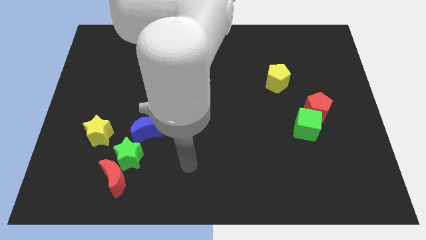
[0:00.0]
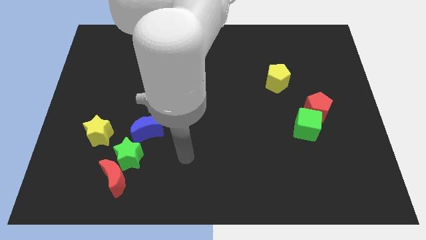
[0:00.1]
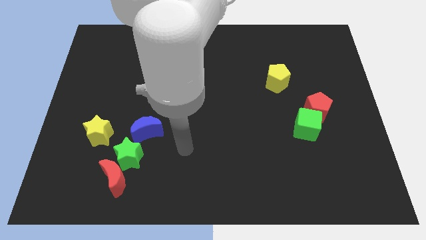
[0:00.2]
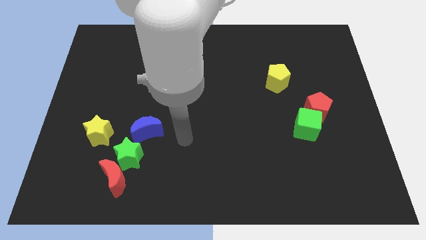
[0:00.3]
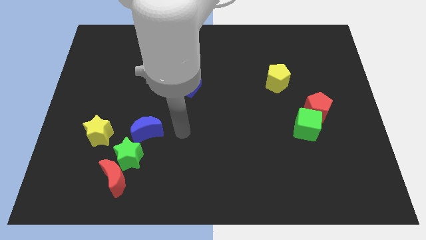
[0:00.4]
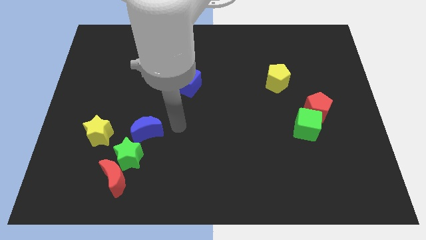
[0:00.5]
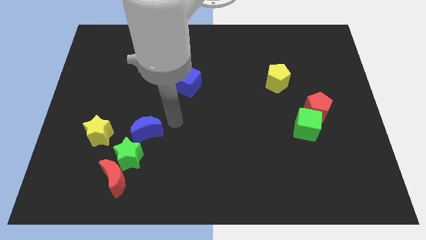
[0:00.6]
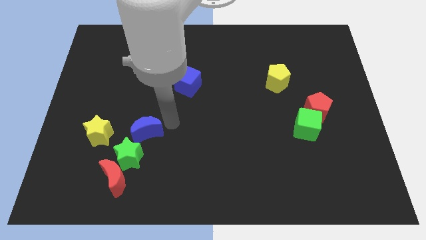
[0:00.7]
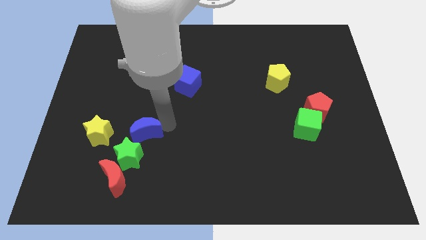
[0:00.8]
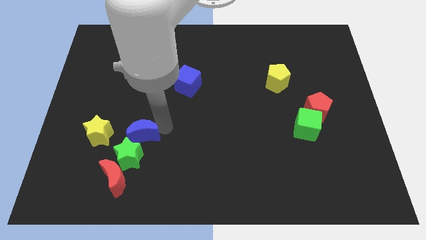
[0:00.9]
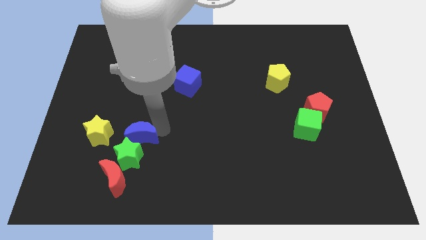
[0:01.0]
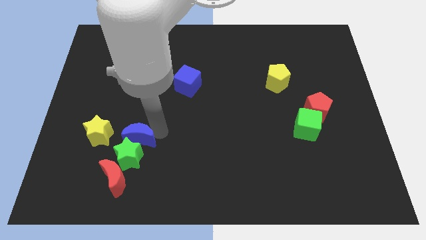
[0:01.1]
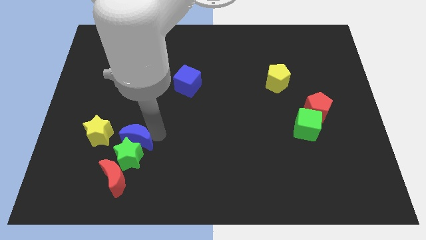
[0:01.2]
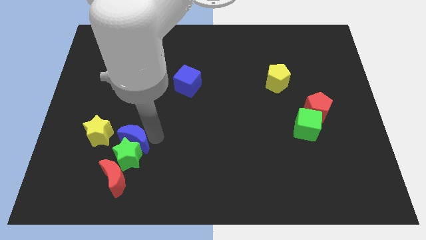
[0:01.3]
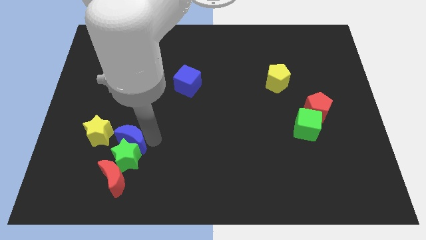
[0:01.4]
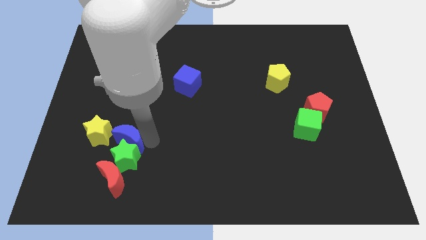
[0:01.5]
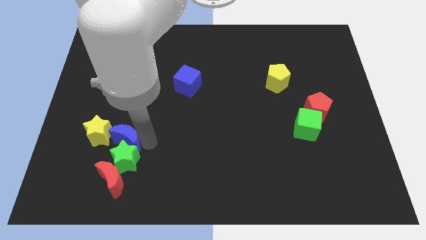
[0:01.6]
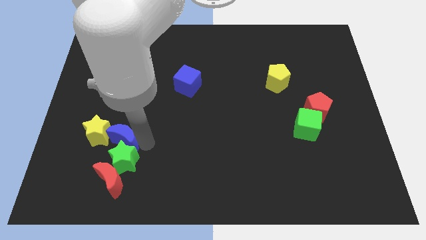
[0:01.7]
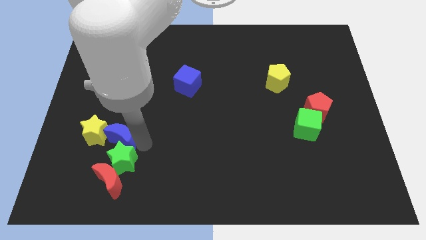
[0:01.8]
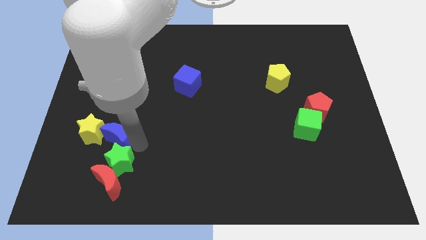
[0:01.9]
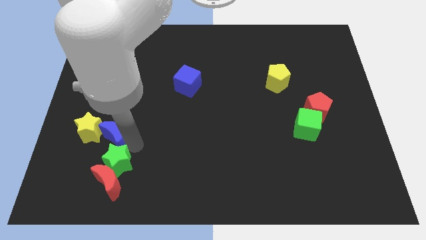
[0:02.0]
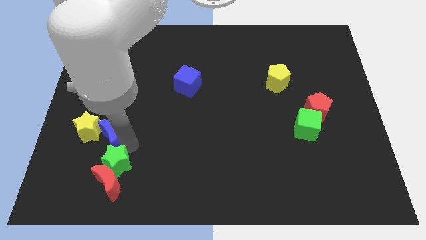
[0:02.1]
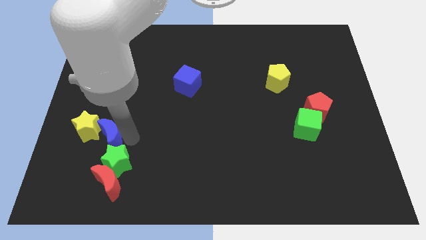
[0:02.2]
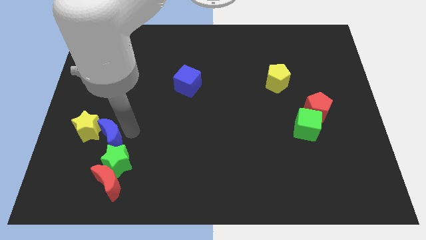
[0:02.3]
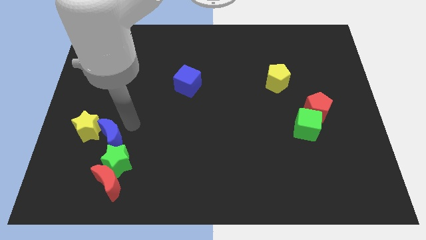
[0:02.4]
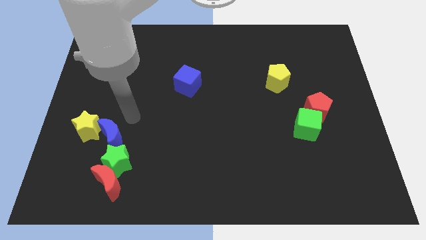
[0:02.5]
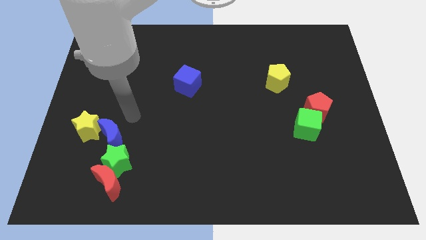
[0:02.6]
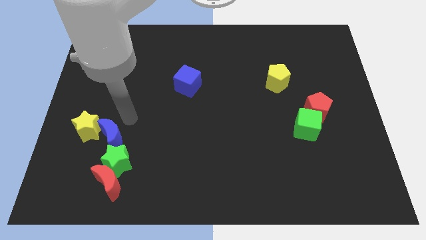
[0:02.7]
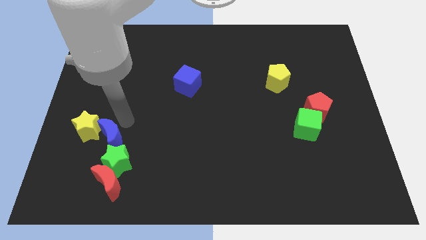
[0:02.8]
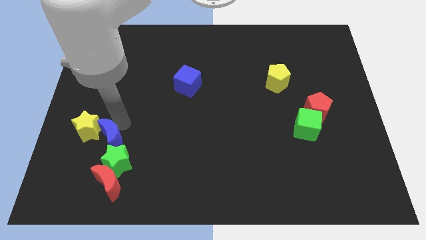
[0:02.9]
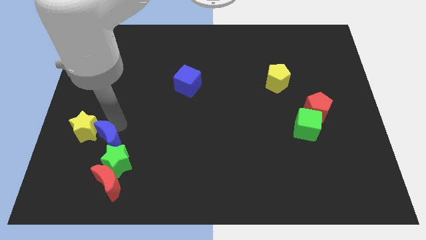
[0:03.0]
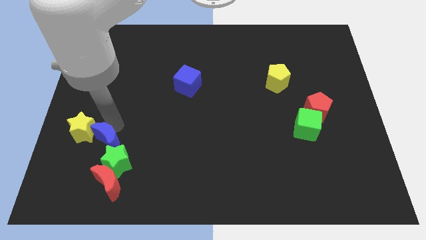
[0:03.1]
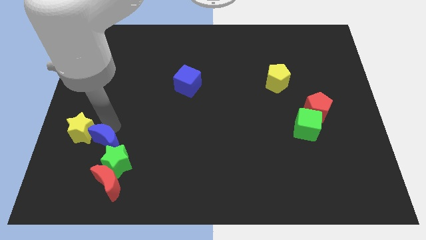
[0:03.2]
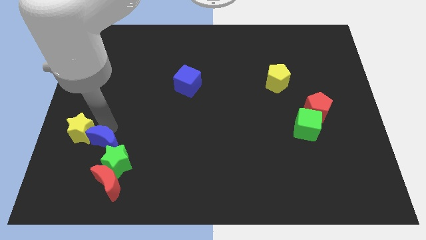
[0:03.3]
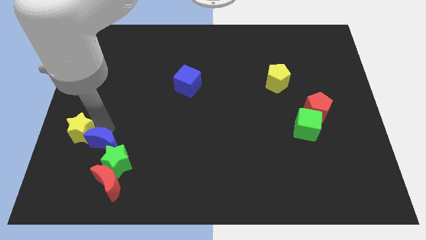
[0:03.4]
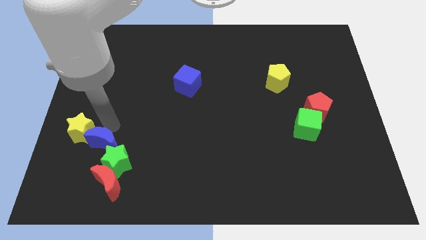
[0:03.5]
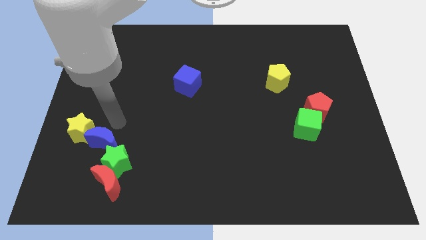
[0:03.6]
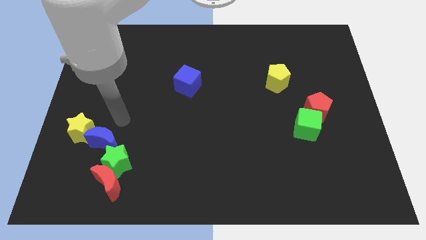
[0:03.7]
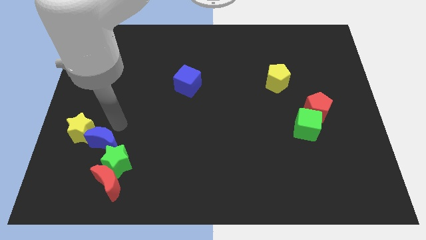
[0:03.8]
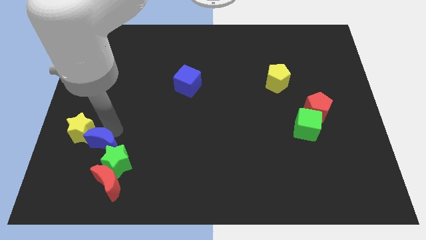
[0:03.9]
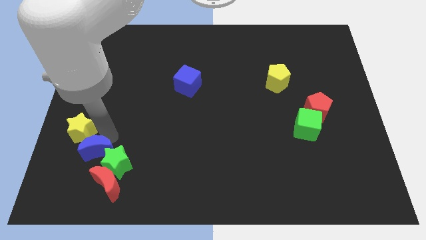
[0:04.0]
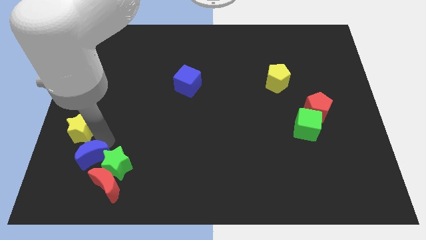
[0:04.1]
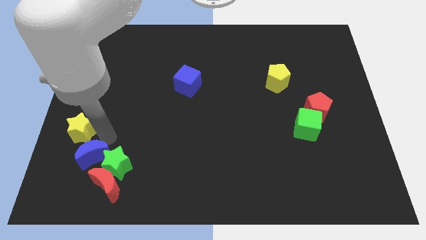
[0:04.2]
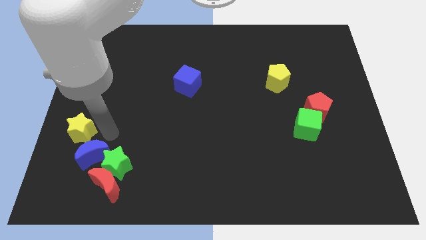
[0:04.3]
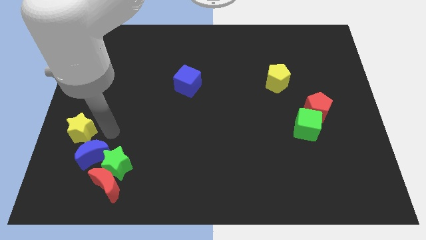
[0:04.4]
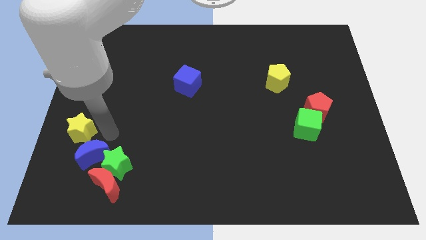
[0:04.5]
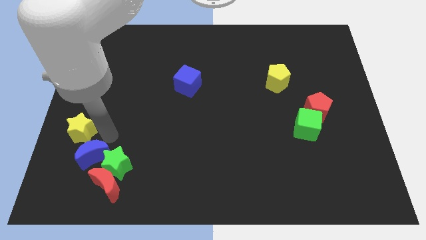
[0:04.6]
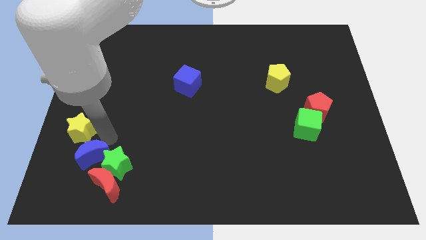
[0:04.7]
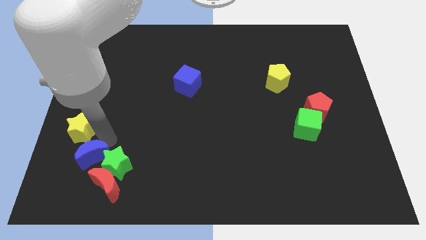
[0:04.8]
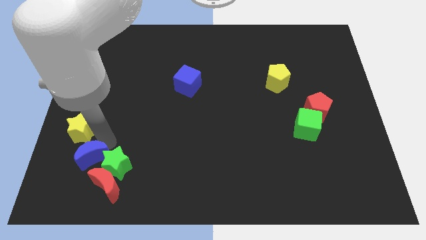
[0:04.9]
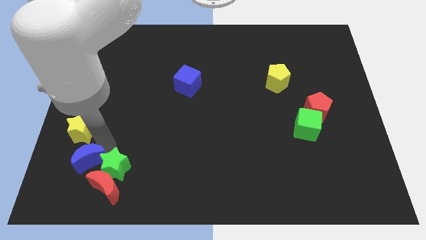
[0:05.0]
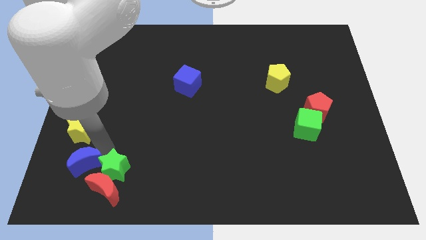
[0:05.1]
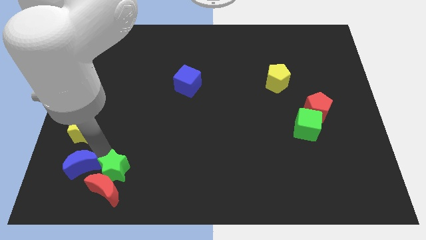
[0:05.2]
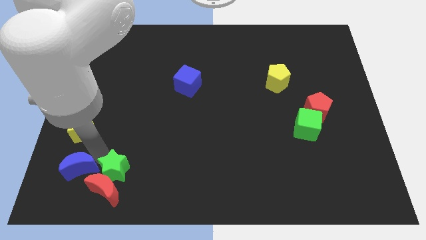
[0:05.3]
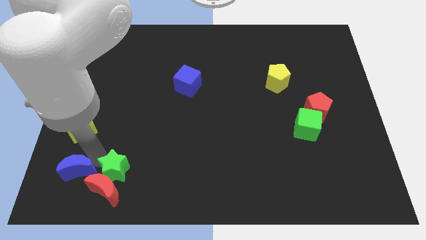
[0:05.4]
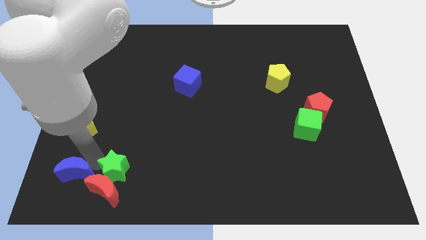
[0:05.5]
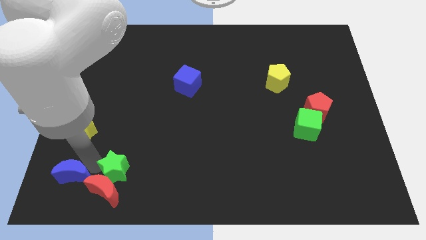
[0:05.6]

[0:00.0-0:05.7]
move the blue moon to the bottom left of the board
